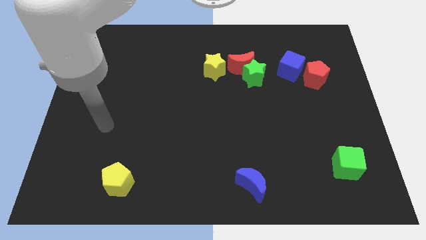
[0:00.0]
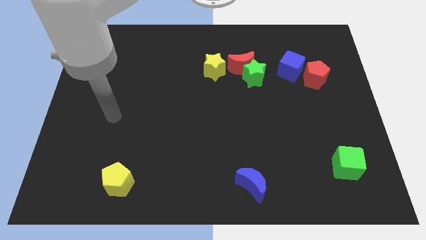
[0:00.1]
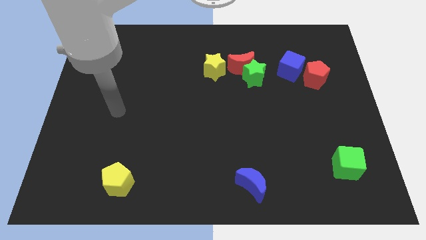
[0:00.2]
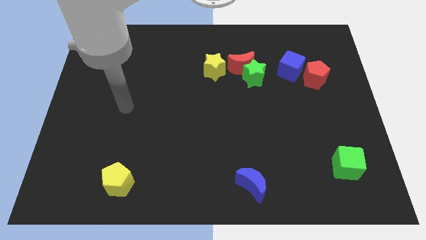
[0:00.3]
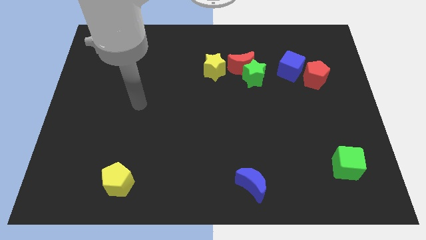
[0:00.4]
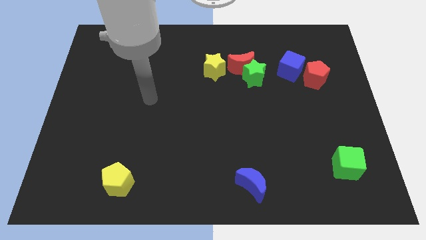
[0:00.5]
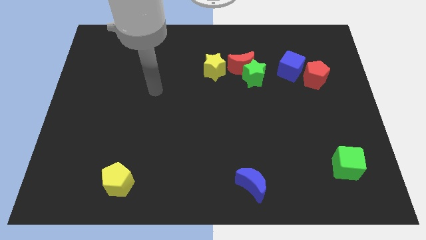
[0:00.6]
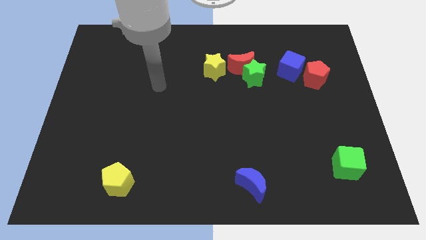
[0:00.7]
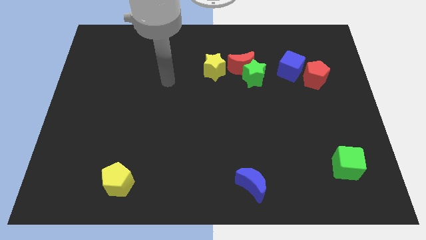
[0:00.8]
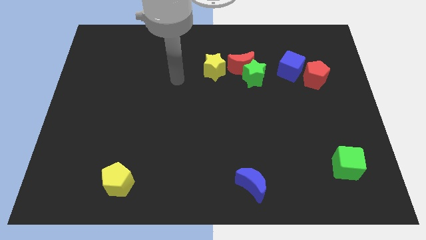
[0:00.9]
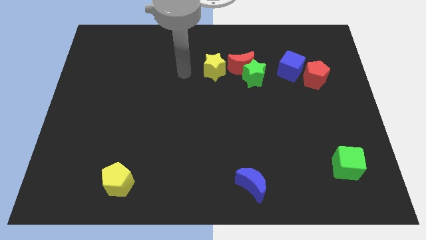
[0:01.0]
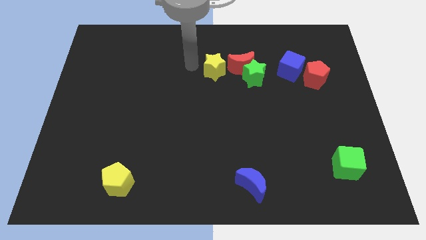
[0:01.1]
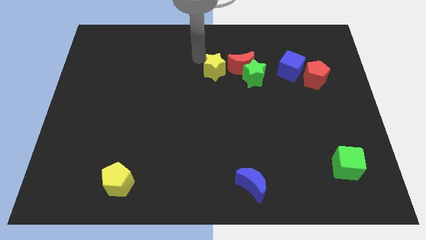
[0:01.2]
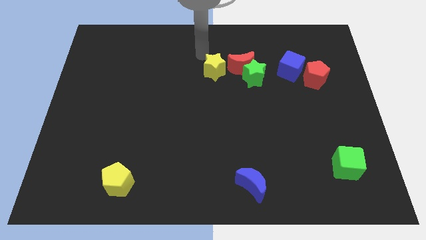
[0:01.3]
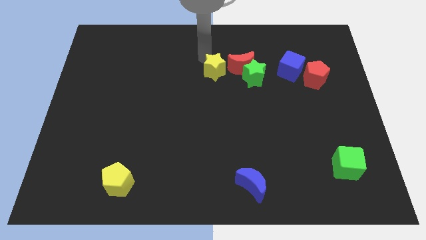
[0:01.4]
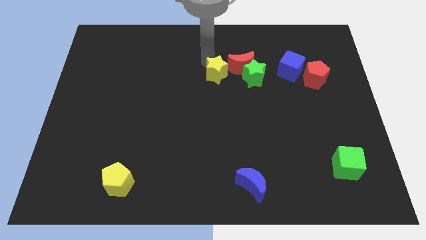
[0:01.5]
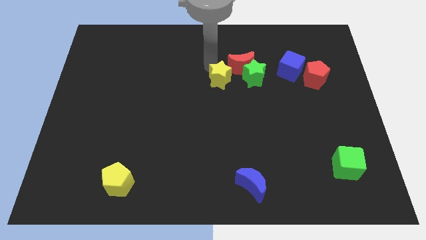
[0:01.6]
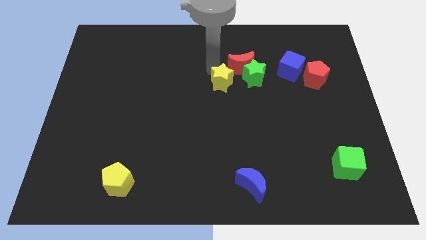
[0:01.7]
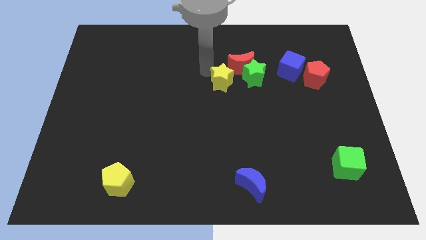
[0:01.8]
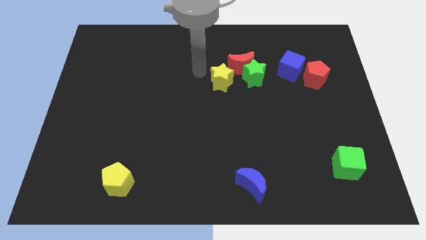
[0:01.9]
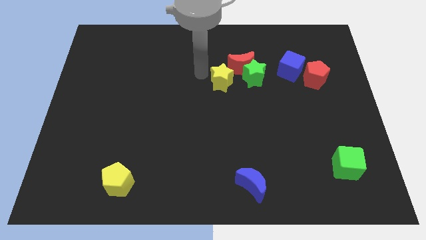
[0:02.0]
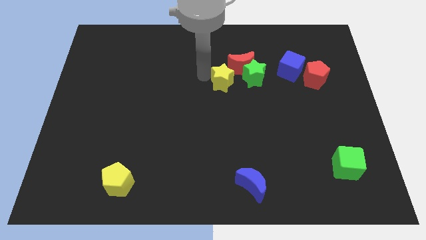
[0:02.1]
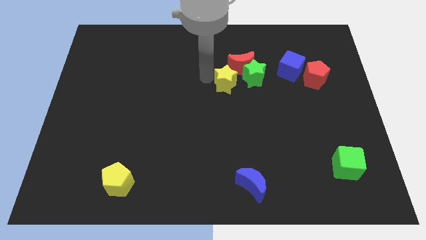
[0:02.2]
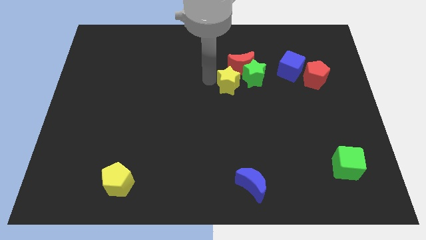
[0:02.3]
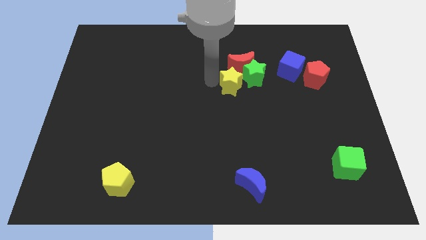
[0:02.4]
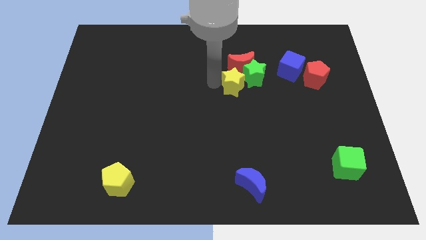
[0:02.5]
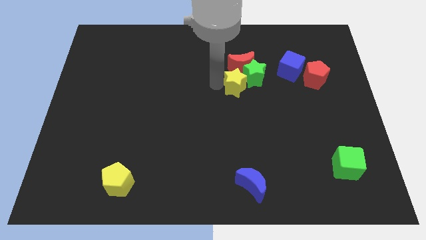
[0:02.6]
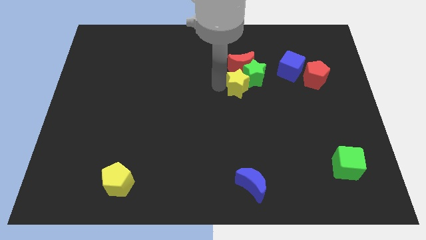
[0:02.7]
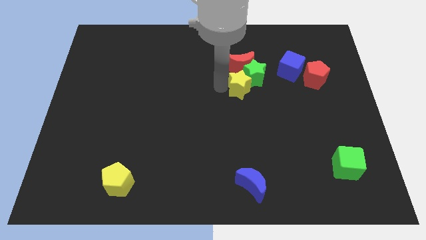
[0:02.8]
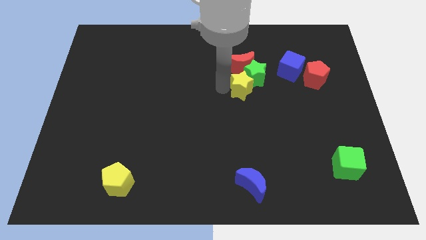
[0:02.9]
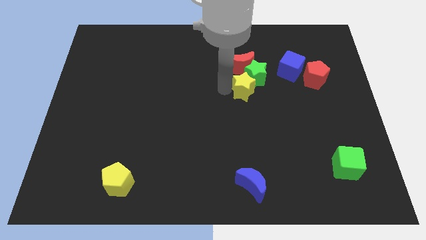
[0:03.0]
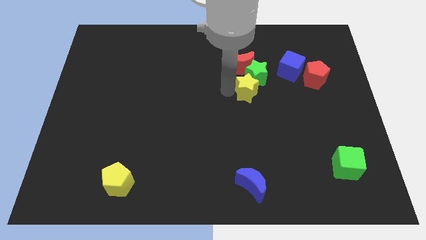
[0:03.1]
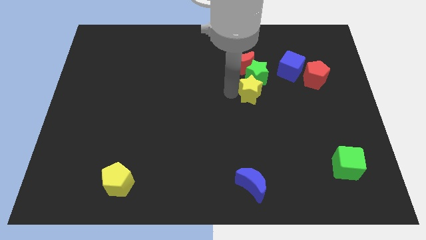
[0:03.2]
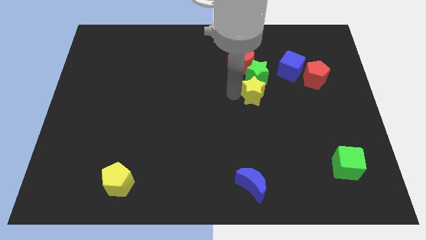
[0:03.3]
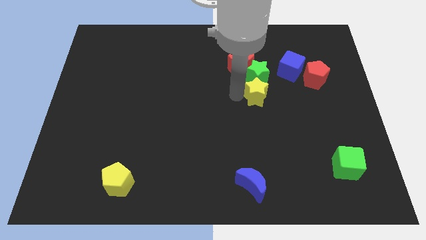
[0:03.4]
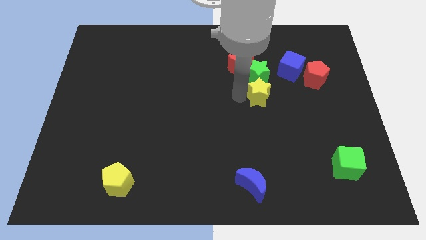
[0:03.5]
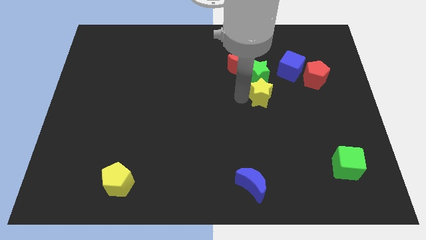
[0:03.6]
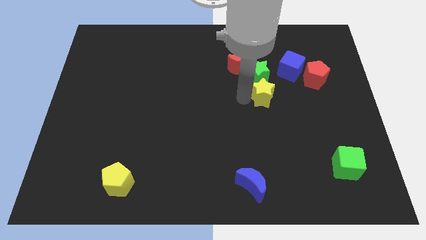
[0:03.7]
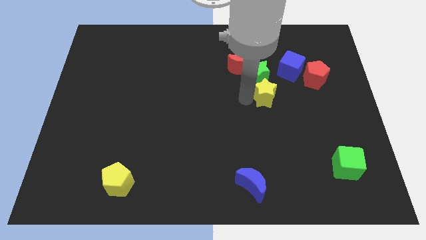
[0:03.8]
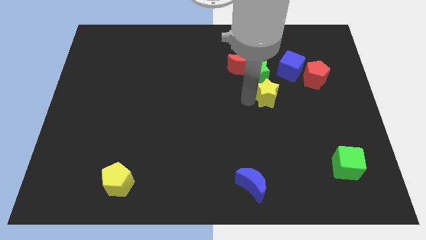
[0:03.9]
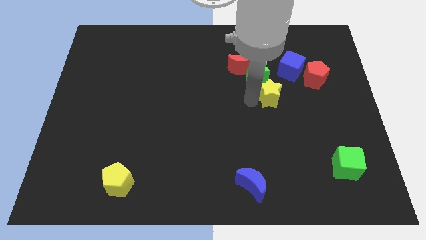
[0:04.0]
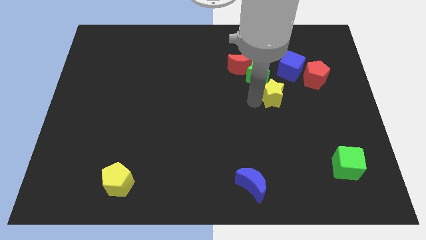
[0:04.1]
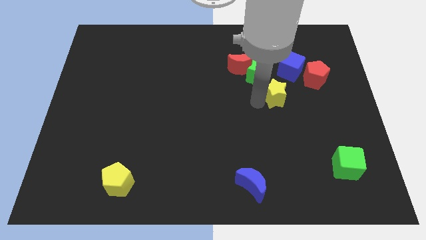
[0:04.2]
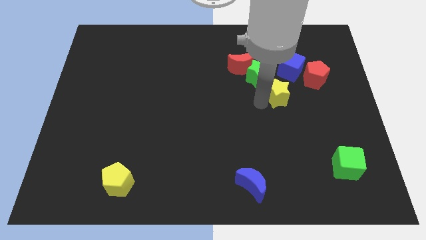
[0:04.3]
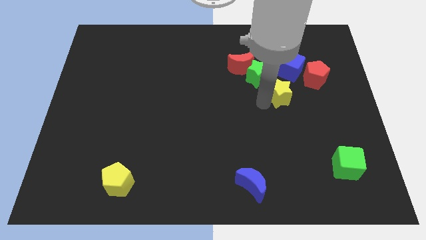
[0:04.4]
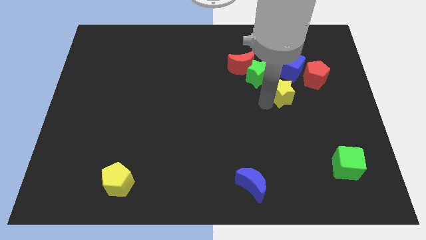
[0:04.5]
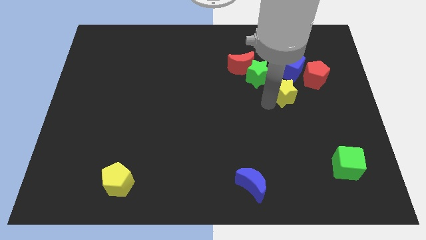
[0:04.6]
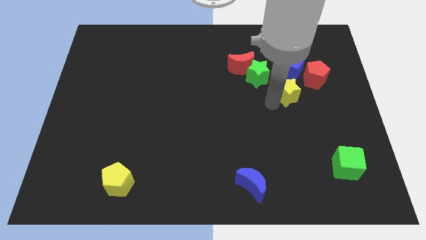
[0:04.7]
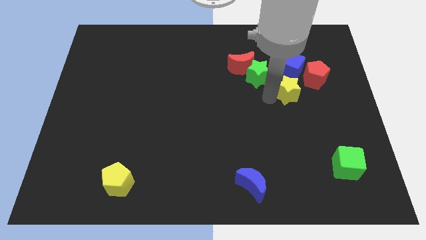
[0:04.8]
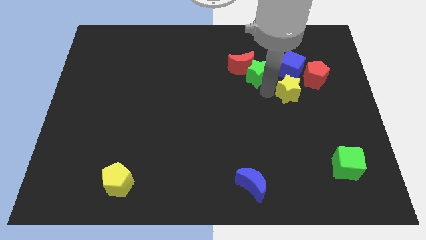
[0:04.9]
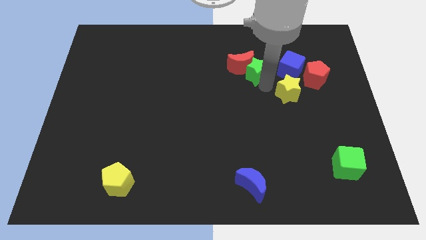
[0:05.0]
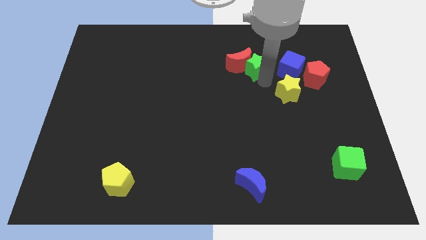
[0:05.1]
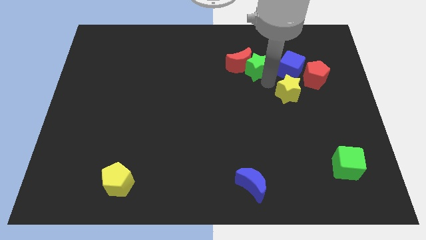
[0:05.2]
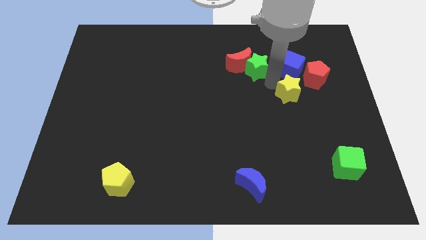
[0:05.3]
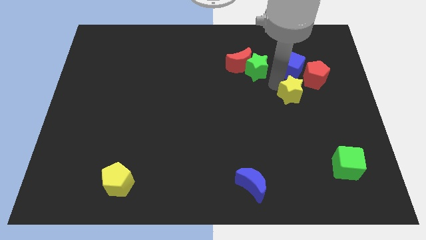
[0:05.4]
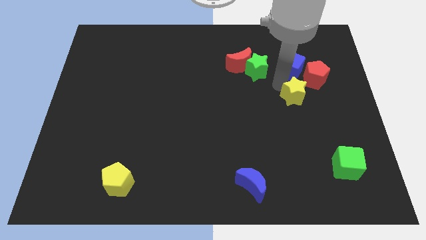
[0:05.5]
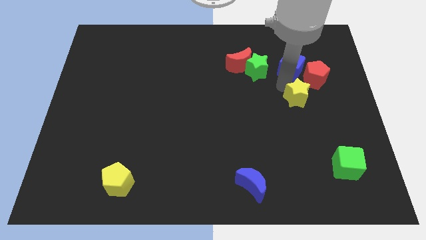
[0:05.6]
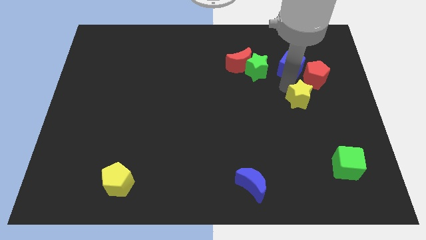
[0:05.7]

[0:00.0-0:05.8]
move the yellow star to the bottom side of the red pentagon

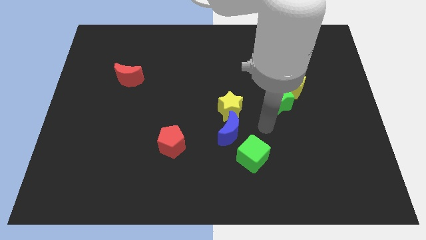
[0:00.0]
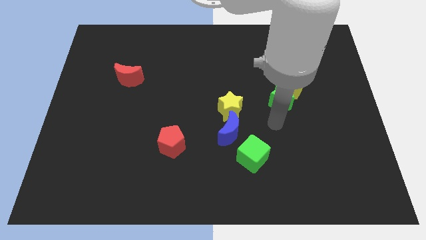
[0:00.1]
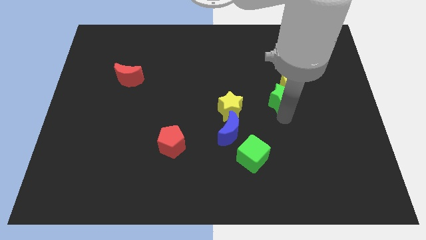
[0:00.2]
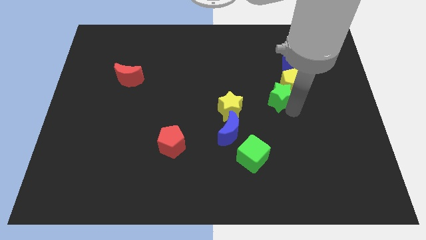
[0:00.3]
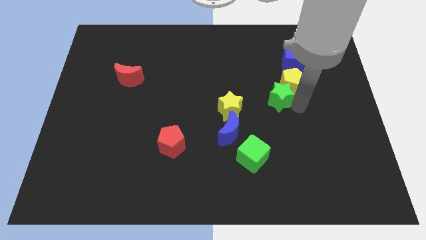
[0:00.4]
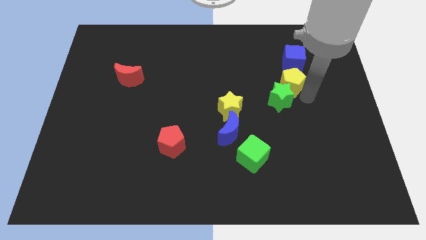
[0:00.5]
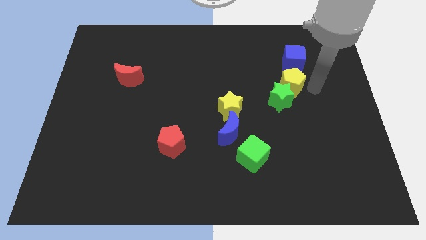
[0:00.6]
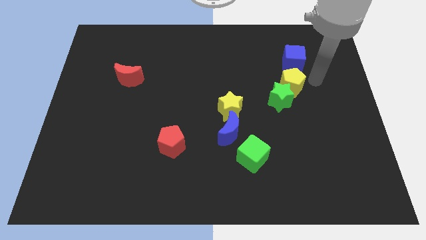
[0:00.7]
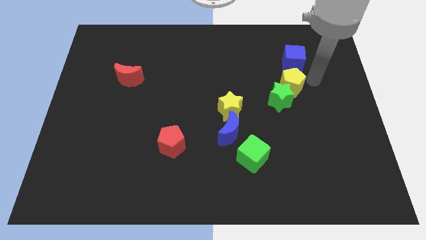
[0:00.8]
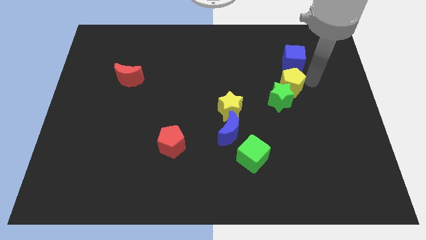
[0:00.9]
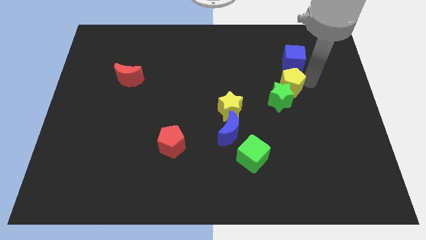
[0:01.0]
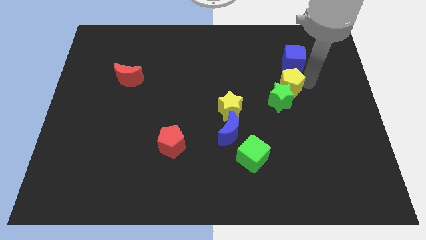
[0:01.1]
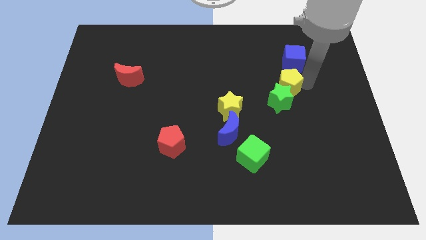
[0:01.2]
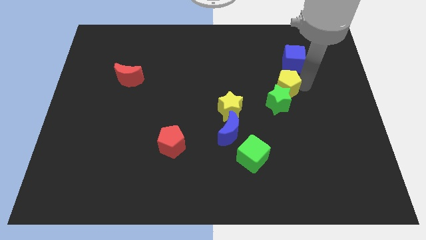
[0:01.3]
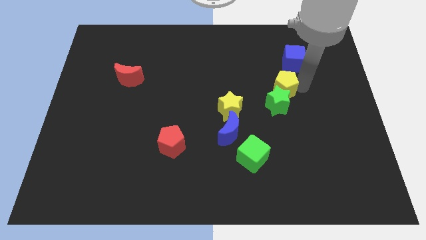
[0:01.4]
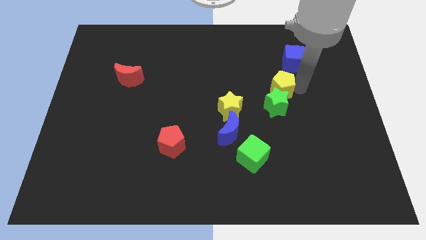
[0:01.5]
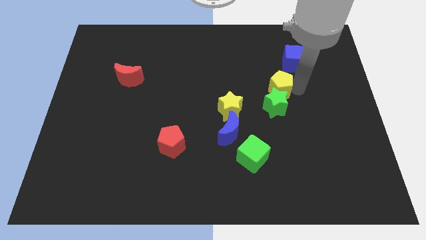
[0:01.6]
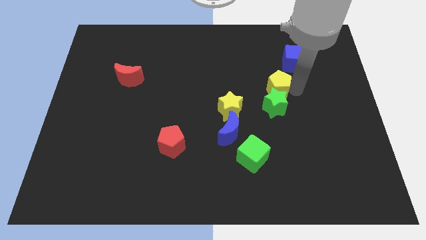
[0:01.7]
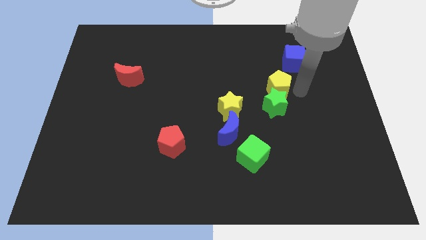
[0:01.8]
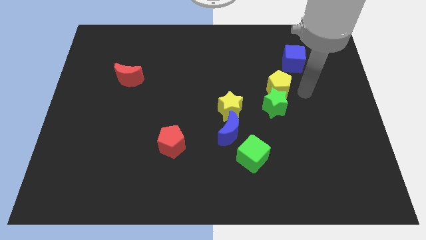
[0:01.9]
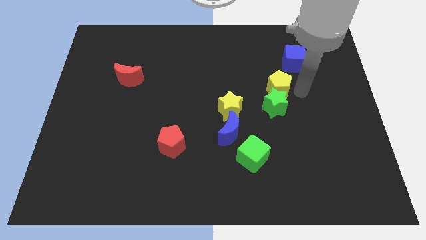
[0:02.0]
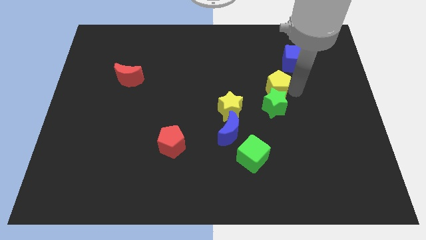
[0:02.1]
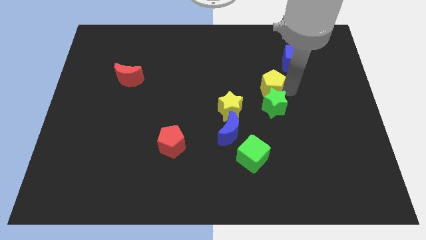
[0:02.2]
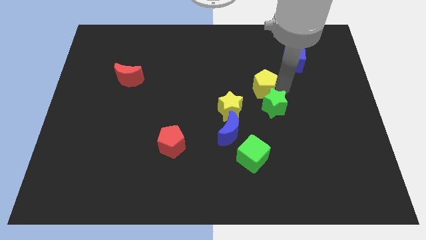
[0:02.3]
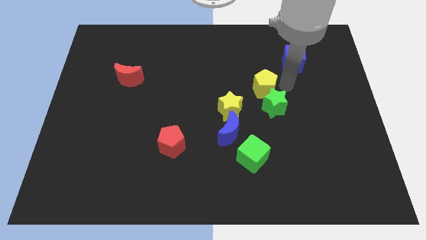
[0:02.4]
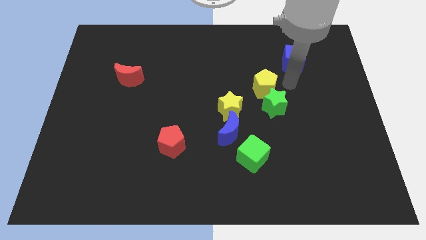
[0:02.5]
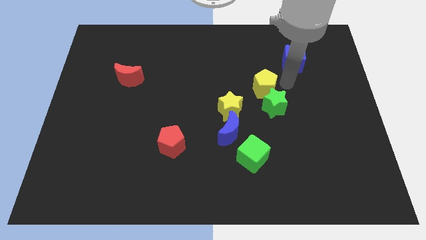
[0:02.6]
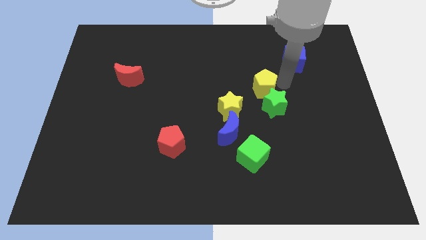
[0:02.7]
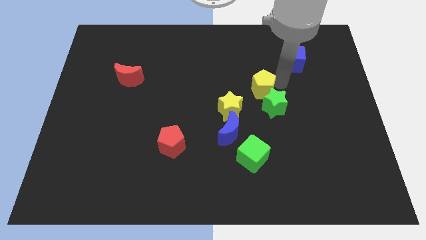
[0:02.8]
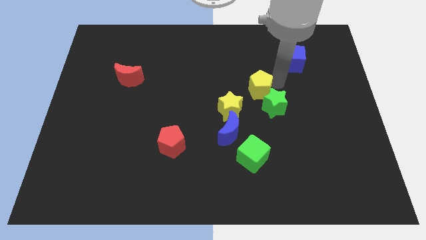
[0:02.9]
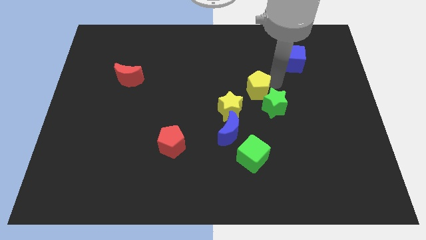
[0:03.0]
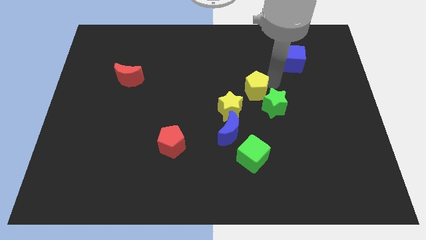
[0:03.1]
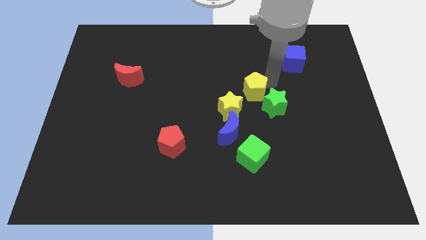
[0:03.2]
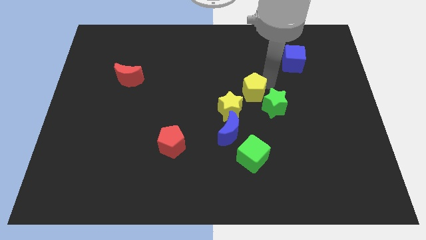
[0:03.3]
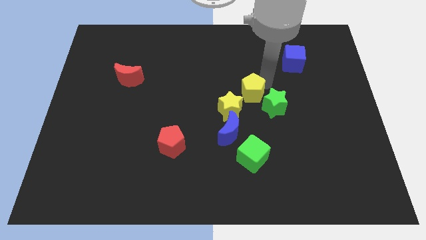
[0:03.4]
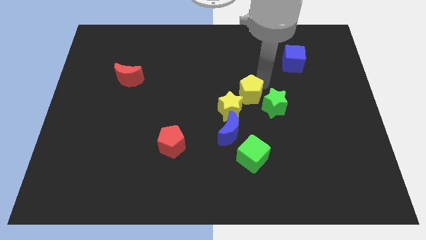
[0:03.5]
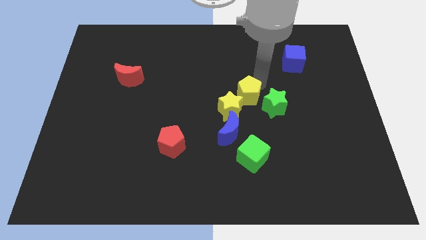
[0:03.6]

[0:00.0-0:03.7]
put the yellow pentagon to the top side of the blue moon
